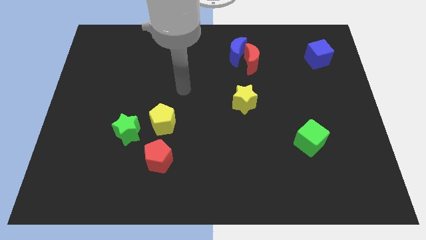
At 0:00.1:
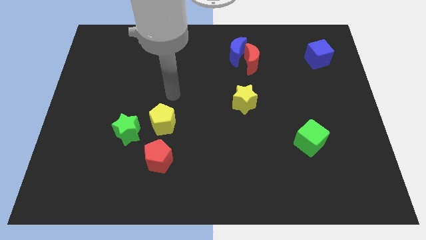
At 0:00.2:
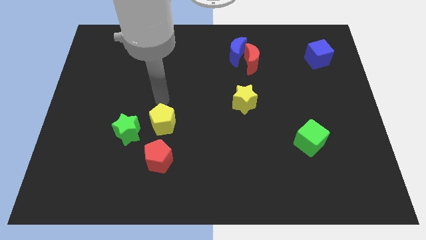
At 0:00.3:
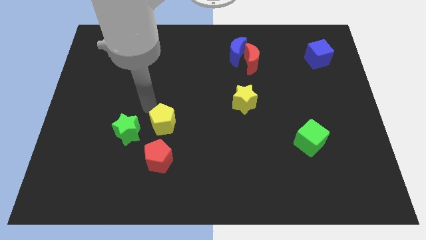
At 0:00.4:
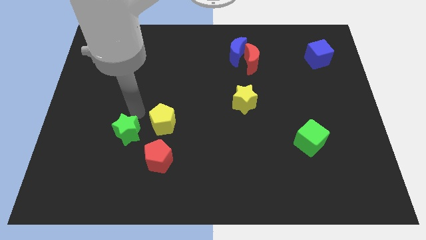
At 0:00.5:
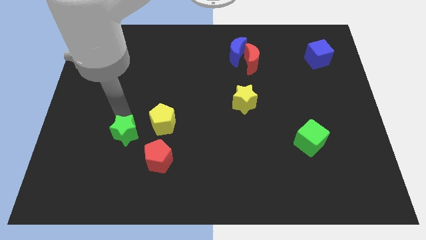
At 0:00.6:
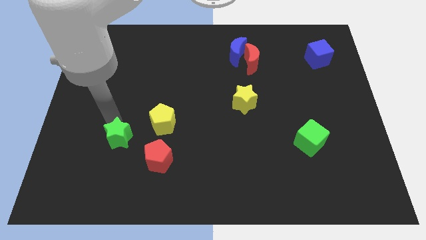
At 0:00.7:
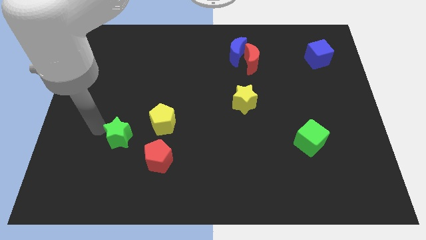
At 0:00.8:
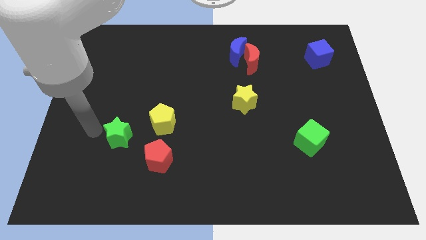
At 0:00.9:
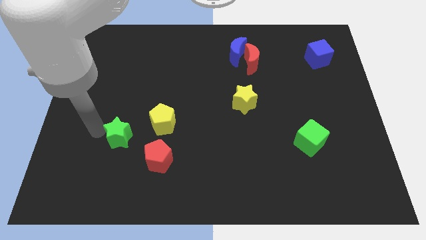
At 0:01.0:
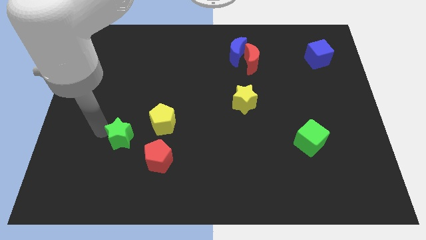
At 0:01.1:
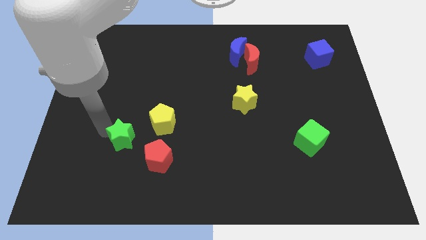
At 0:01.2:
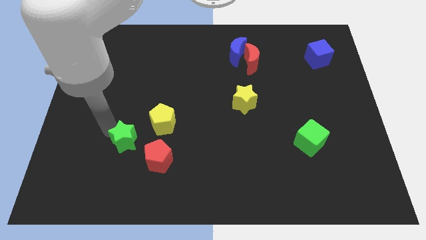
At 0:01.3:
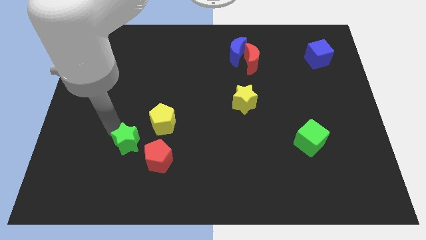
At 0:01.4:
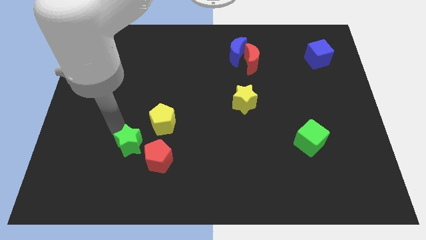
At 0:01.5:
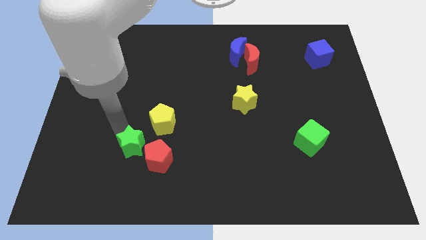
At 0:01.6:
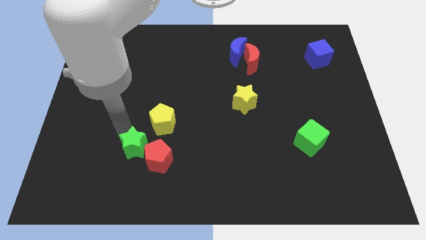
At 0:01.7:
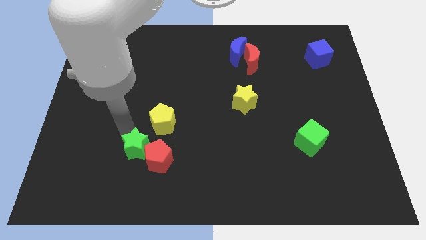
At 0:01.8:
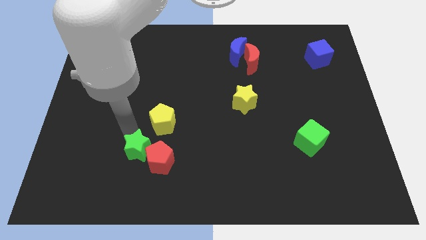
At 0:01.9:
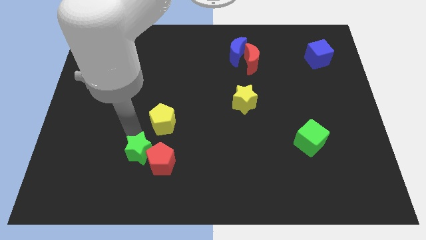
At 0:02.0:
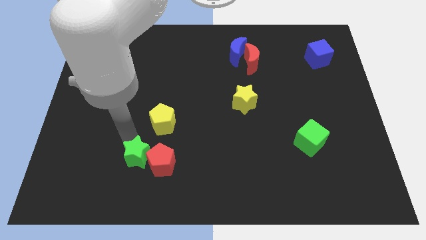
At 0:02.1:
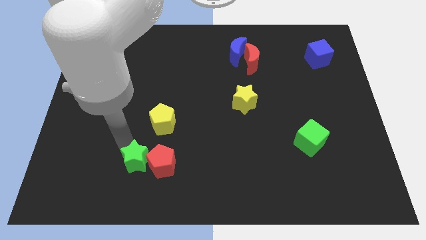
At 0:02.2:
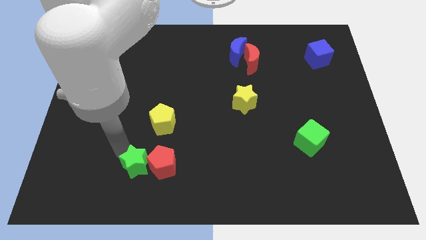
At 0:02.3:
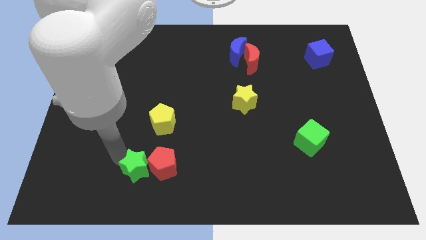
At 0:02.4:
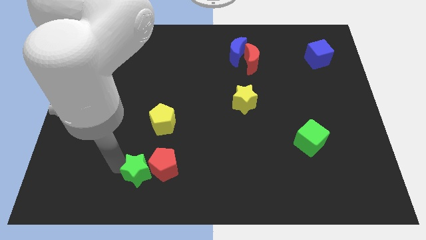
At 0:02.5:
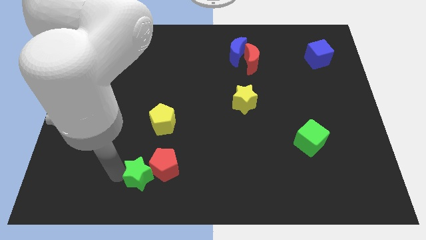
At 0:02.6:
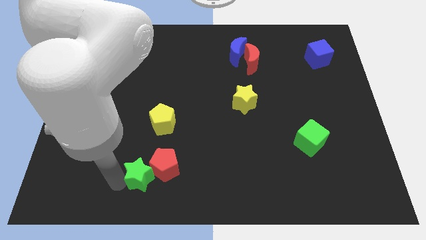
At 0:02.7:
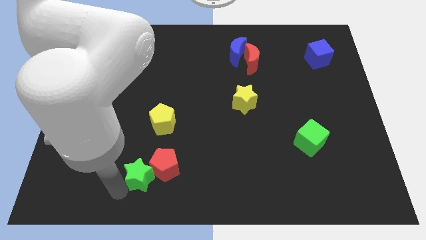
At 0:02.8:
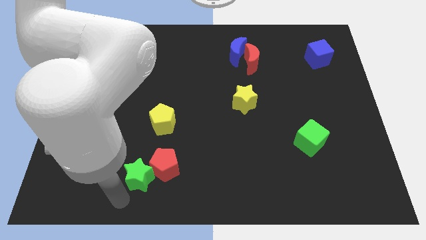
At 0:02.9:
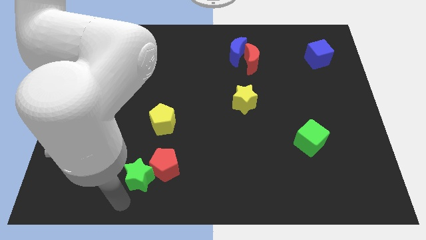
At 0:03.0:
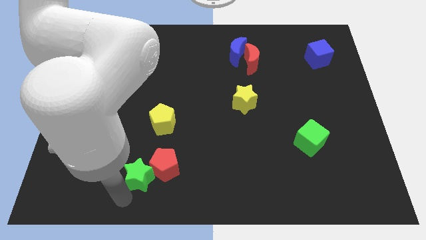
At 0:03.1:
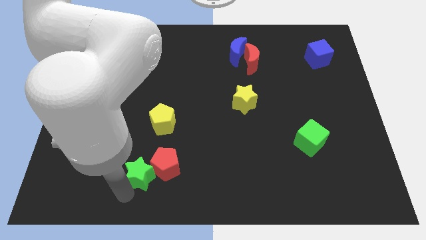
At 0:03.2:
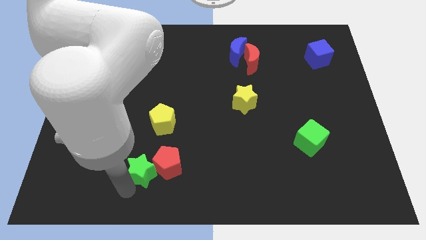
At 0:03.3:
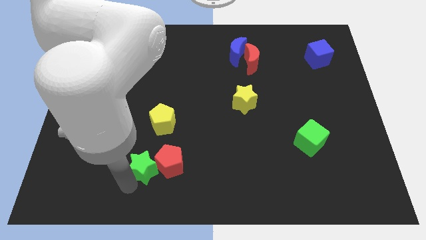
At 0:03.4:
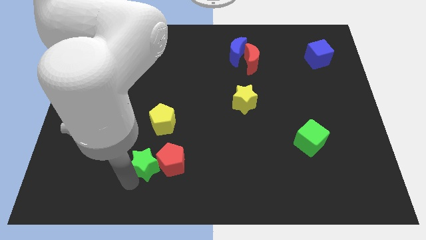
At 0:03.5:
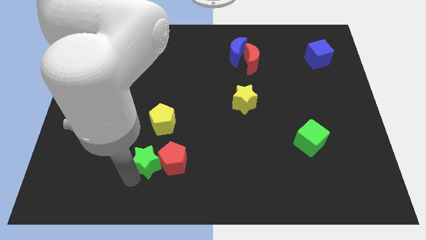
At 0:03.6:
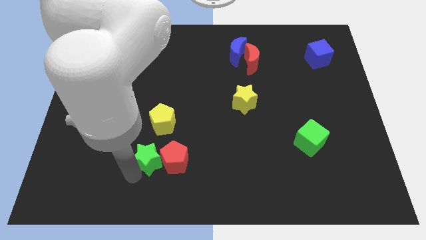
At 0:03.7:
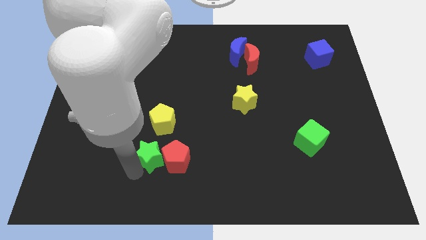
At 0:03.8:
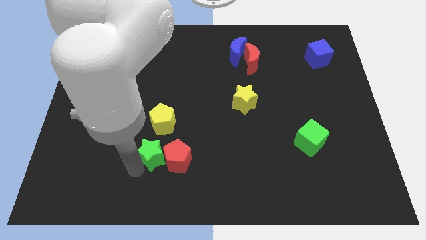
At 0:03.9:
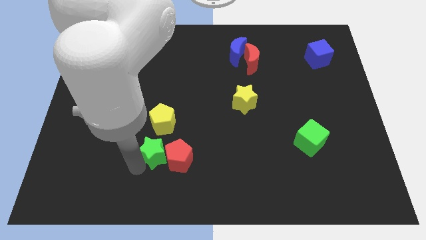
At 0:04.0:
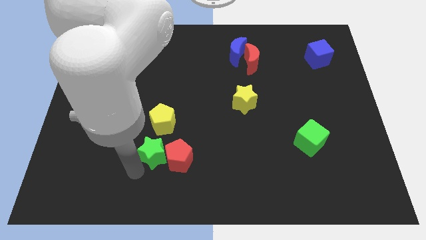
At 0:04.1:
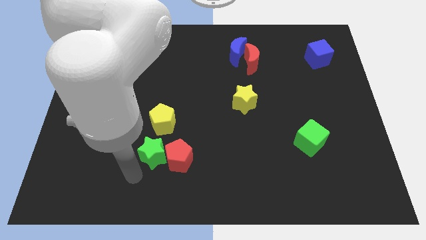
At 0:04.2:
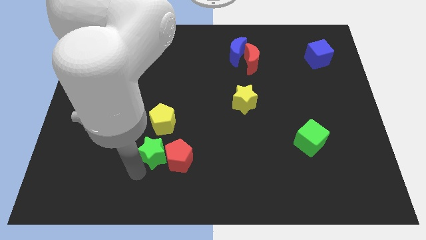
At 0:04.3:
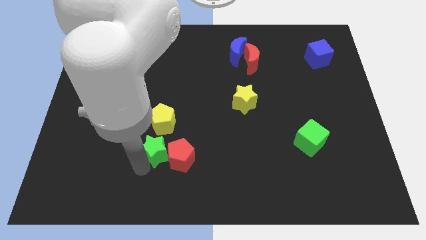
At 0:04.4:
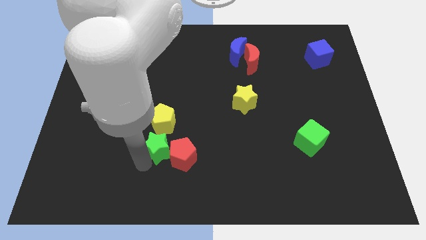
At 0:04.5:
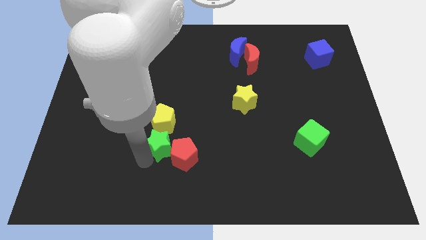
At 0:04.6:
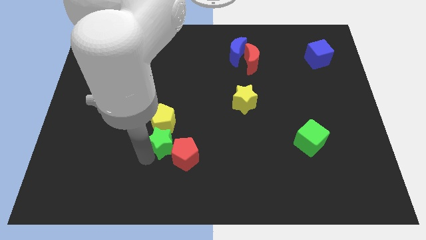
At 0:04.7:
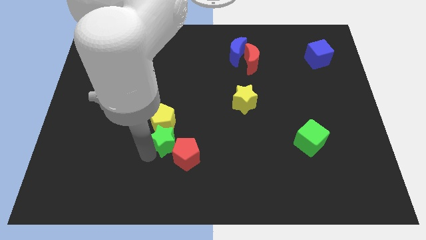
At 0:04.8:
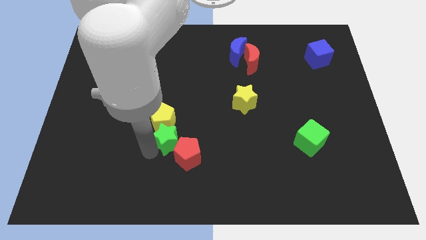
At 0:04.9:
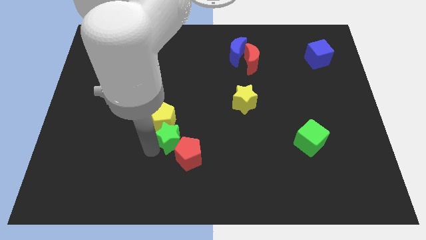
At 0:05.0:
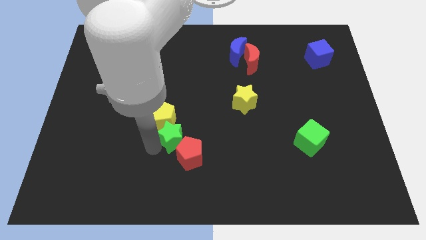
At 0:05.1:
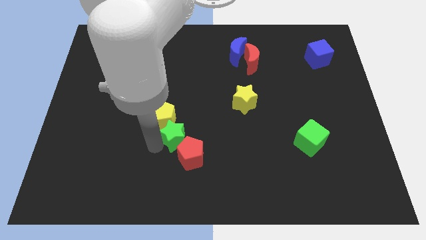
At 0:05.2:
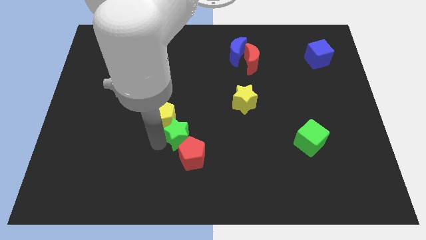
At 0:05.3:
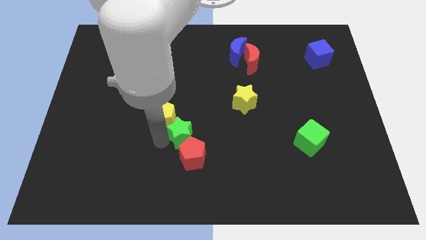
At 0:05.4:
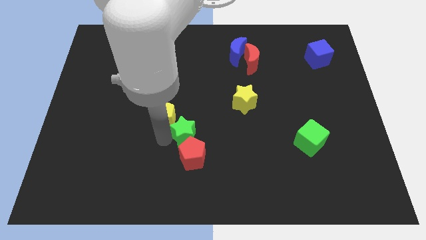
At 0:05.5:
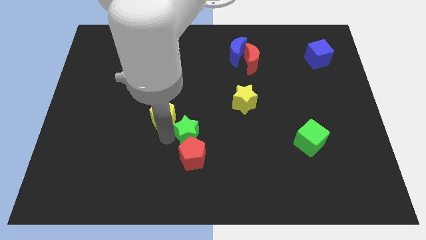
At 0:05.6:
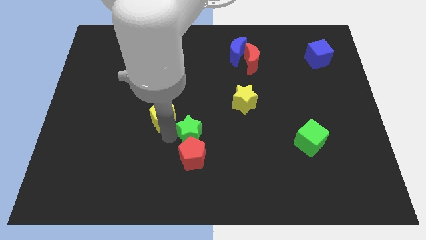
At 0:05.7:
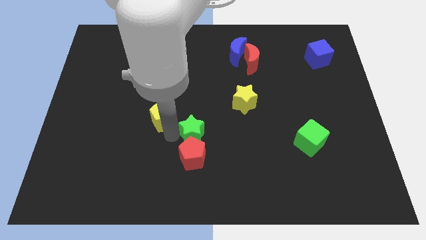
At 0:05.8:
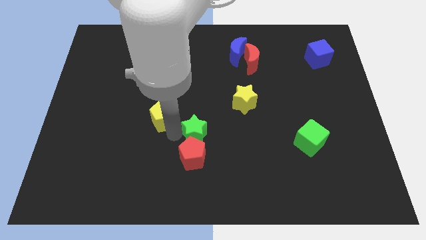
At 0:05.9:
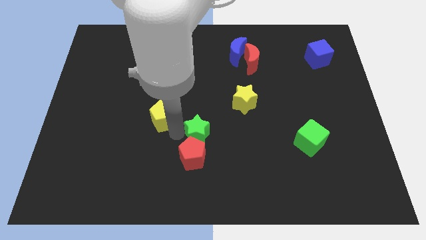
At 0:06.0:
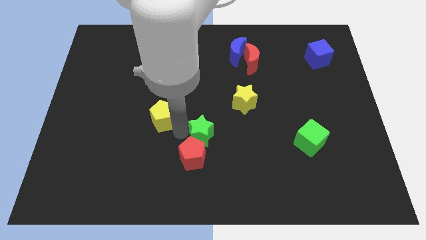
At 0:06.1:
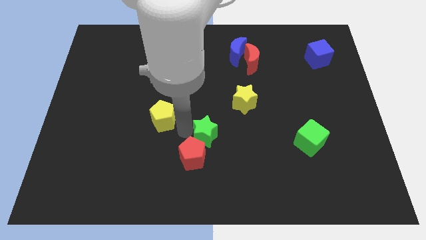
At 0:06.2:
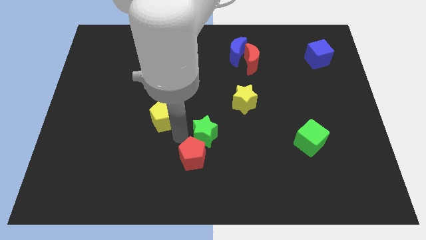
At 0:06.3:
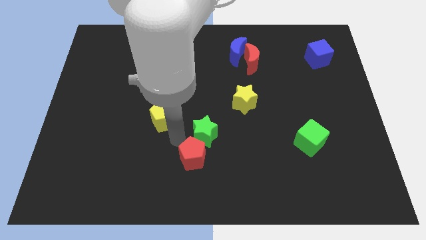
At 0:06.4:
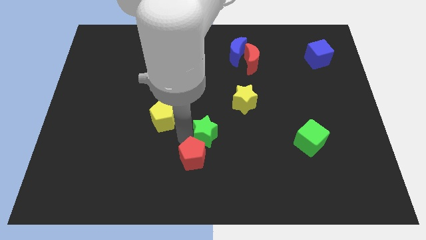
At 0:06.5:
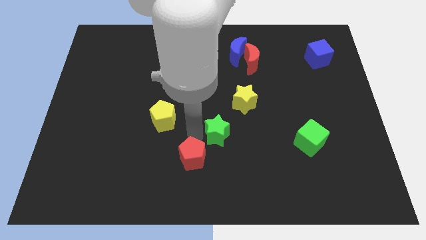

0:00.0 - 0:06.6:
push the green star to the right

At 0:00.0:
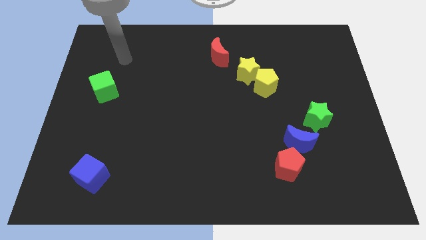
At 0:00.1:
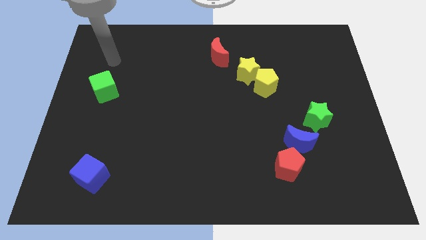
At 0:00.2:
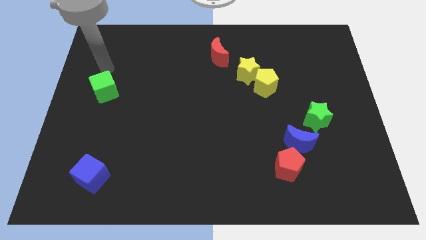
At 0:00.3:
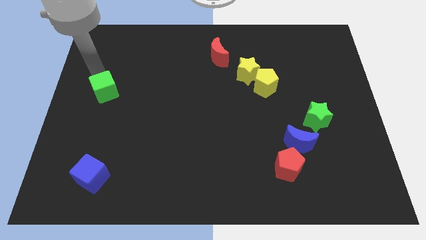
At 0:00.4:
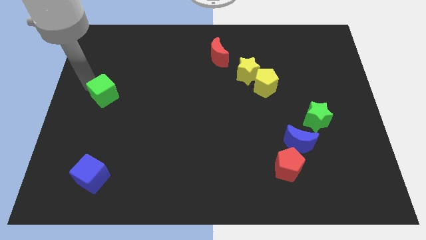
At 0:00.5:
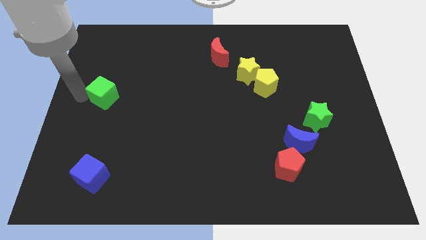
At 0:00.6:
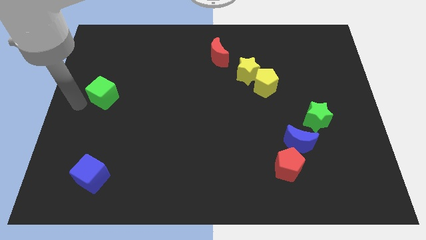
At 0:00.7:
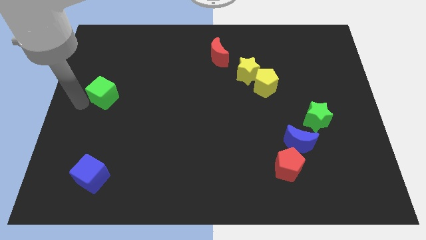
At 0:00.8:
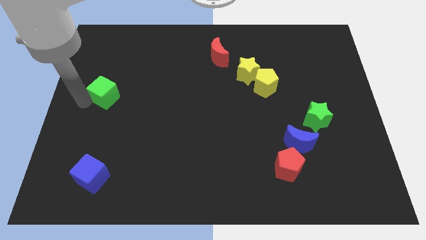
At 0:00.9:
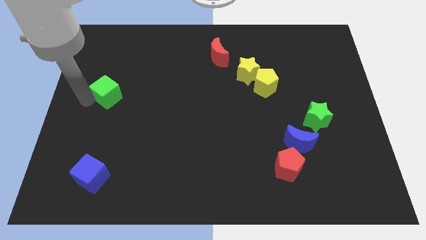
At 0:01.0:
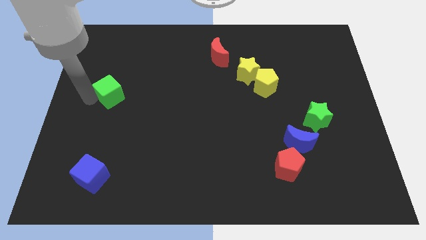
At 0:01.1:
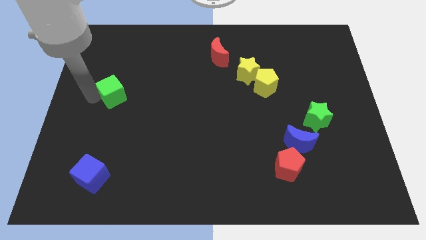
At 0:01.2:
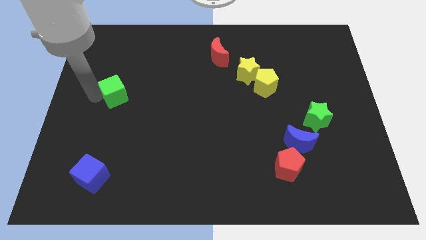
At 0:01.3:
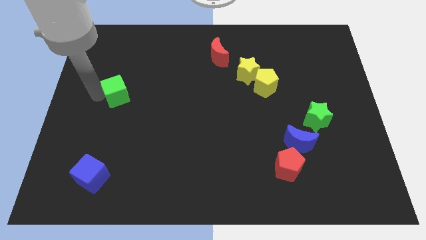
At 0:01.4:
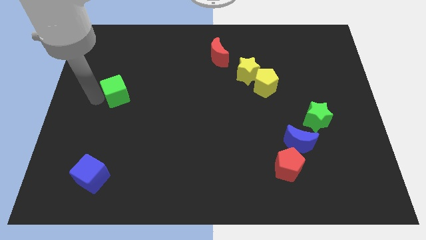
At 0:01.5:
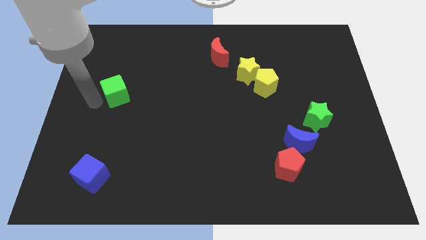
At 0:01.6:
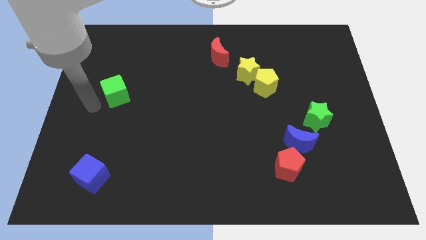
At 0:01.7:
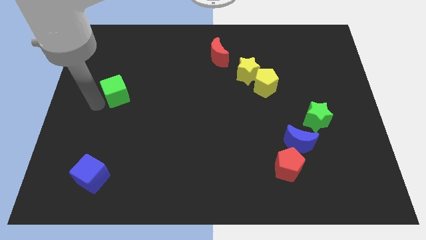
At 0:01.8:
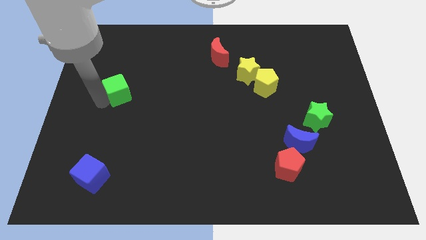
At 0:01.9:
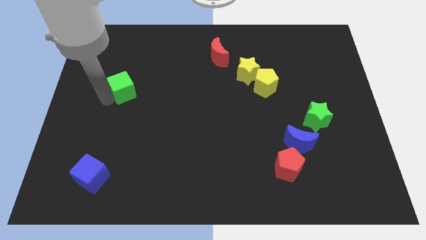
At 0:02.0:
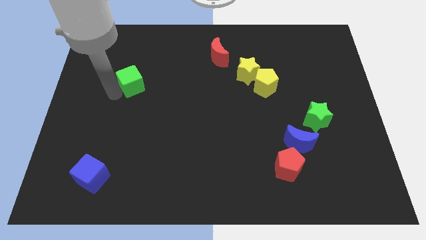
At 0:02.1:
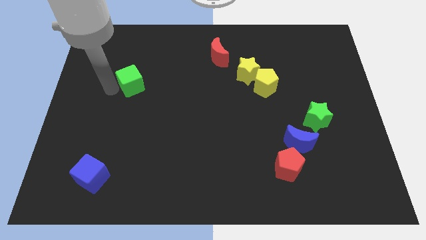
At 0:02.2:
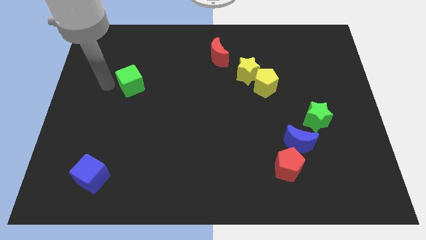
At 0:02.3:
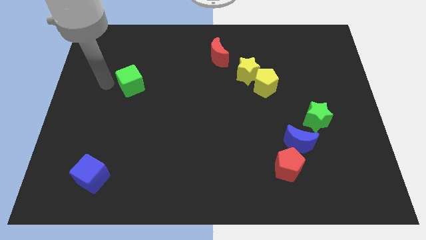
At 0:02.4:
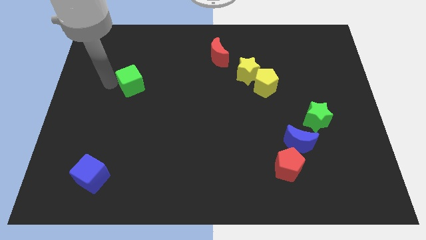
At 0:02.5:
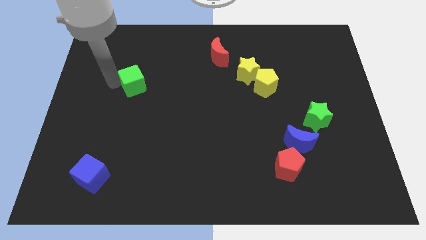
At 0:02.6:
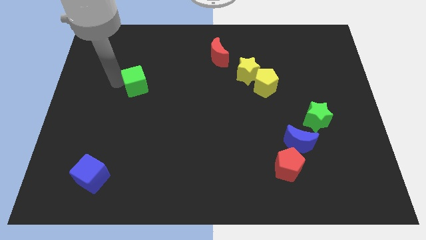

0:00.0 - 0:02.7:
push the green cube to the right somewhat
